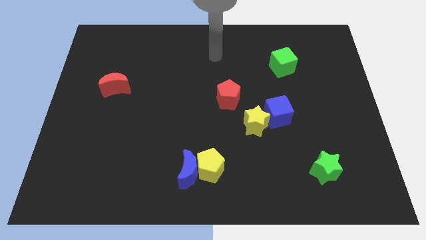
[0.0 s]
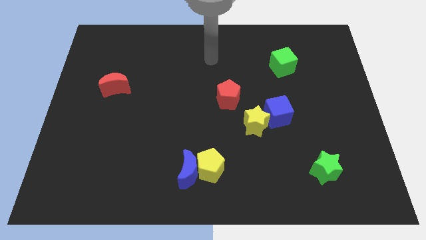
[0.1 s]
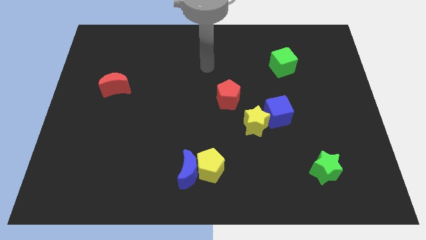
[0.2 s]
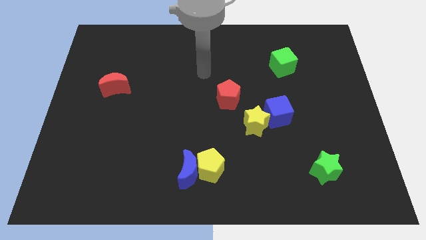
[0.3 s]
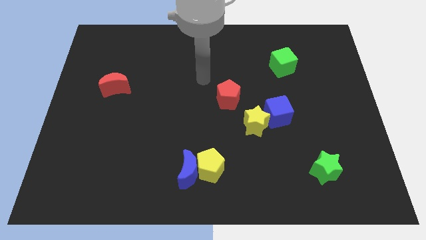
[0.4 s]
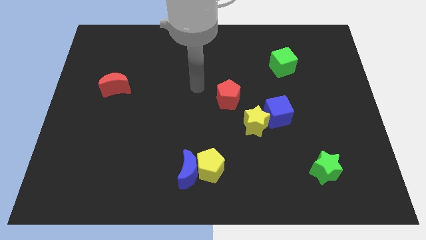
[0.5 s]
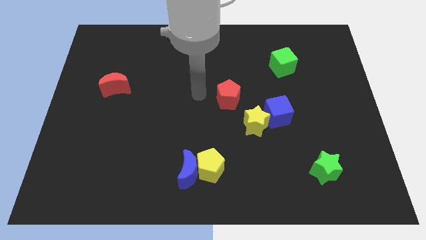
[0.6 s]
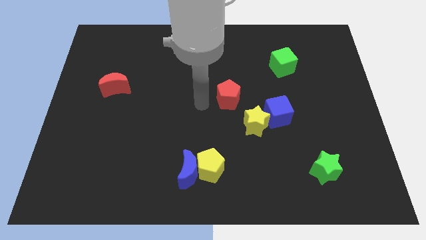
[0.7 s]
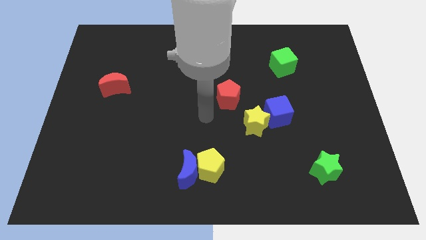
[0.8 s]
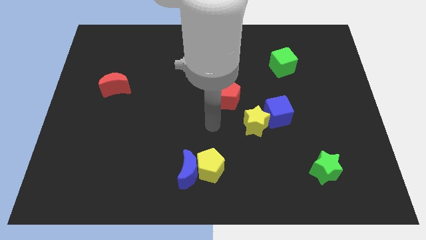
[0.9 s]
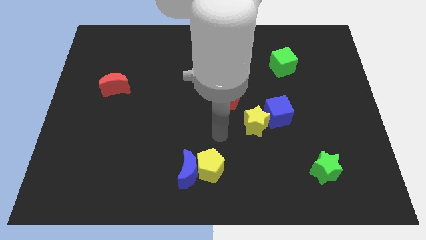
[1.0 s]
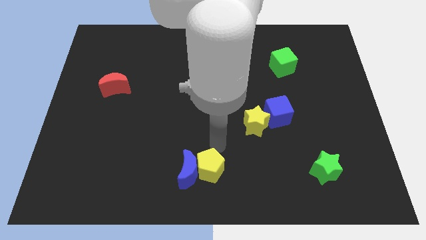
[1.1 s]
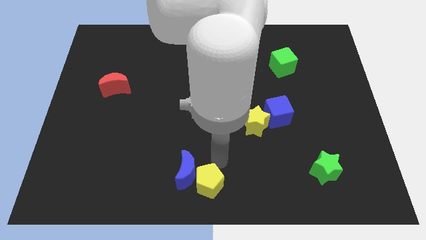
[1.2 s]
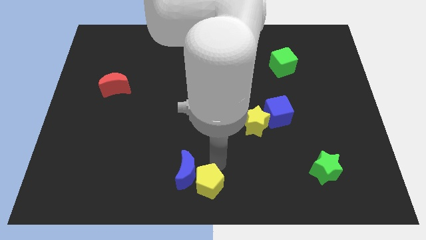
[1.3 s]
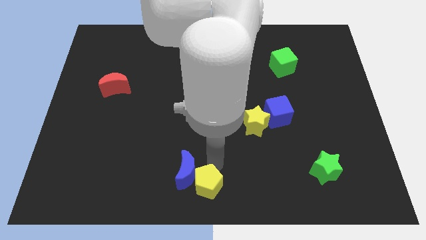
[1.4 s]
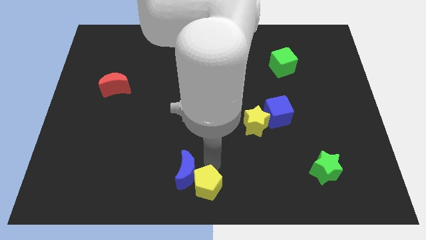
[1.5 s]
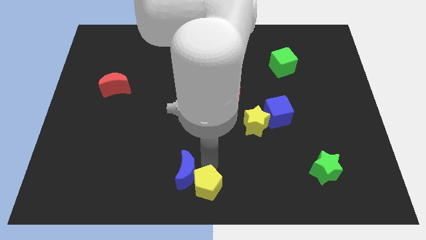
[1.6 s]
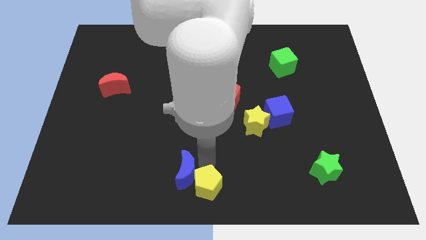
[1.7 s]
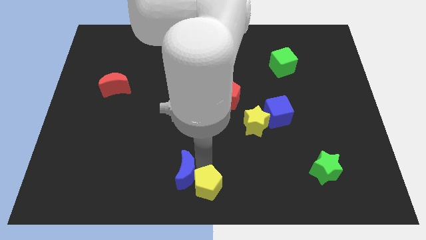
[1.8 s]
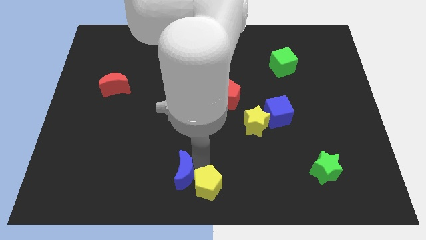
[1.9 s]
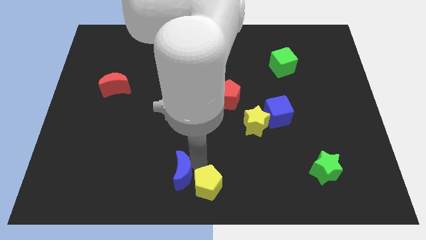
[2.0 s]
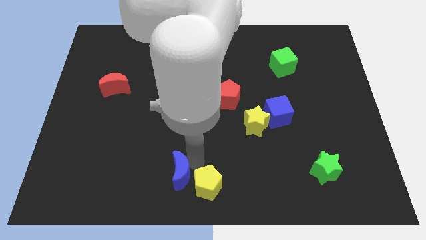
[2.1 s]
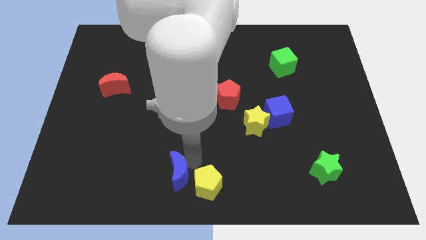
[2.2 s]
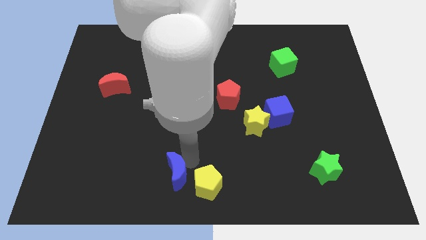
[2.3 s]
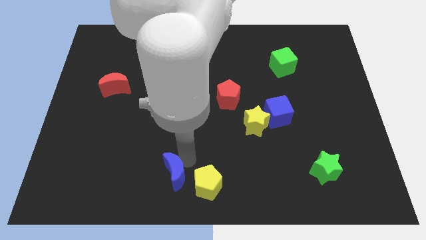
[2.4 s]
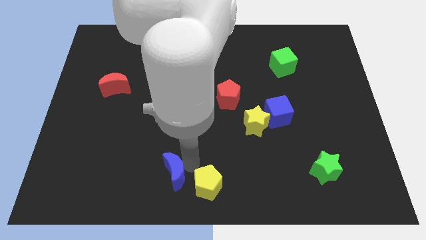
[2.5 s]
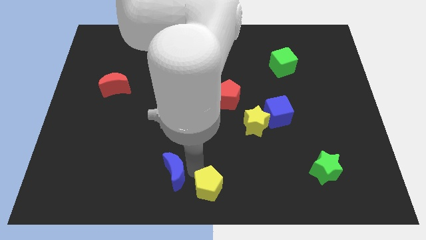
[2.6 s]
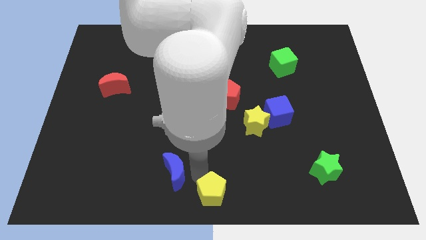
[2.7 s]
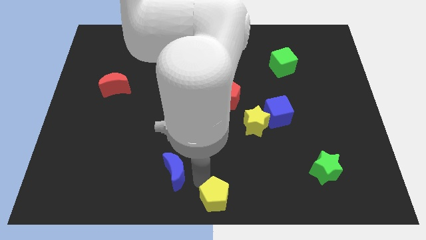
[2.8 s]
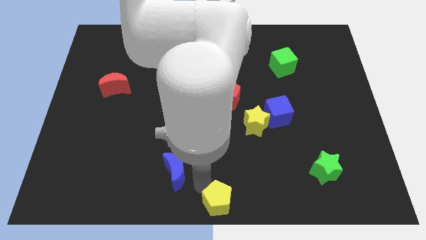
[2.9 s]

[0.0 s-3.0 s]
pull the blue moon apart from the yellow pentagon

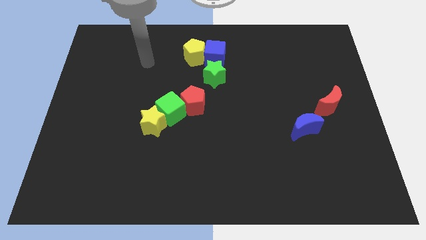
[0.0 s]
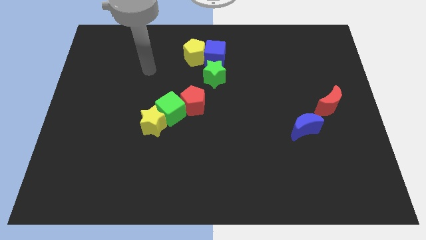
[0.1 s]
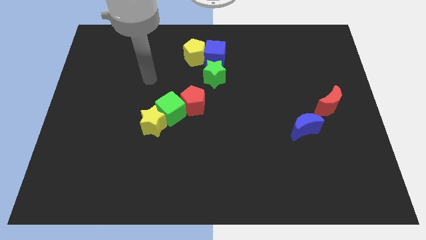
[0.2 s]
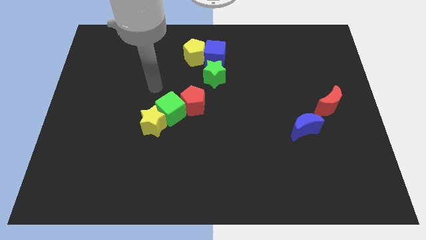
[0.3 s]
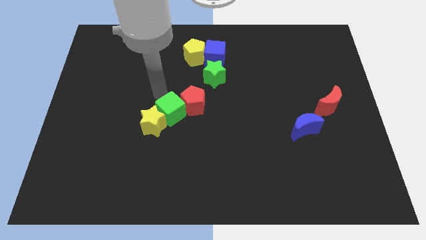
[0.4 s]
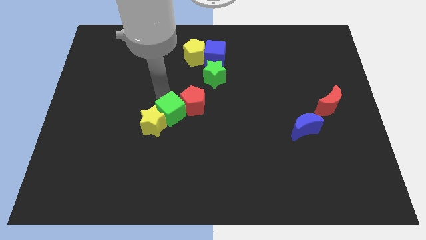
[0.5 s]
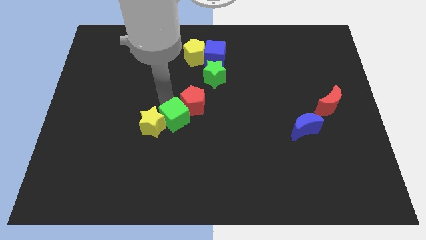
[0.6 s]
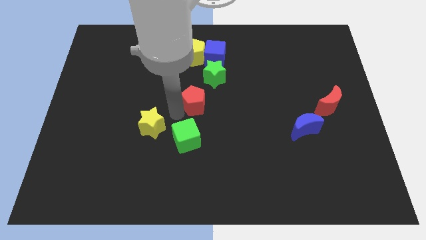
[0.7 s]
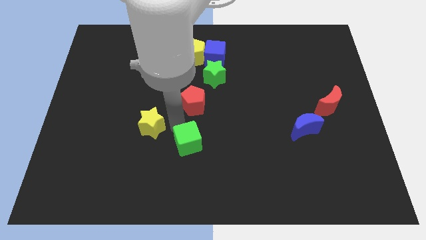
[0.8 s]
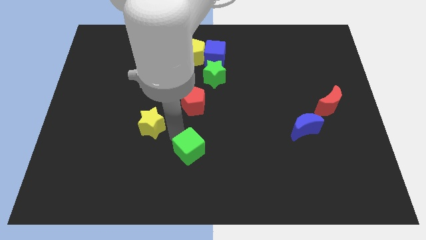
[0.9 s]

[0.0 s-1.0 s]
pull the yellow star apart from the green cube

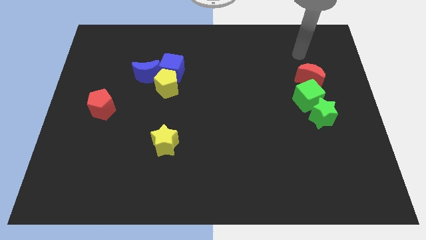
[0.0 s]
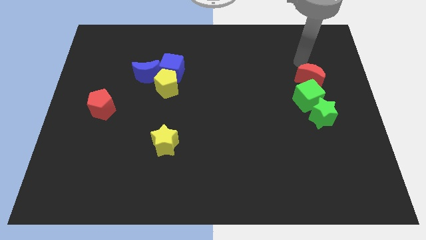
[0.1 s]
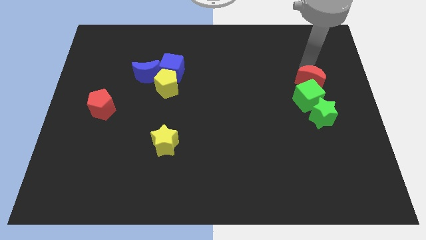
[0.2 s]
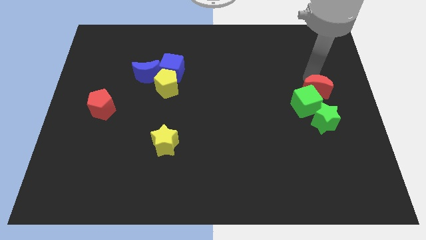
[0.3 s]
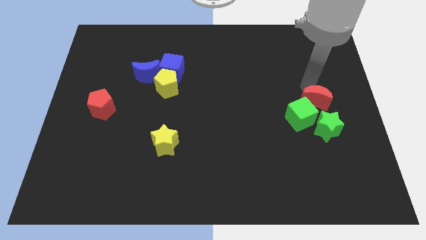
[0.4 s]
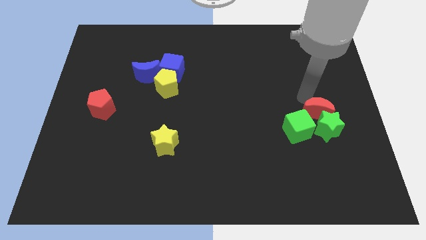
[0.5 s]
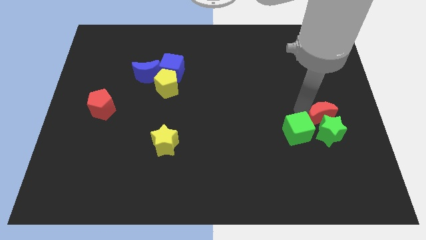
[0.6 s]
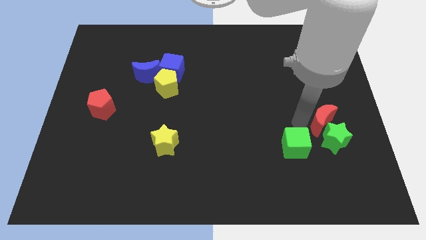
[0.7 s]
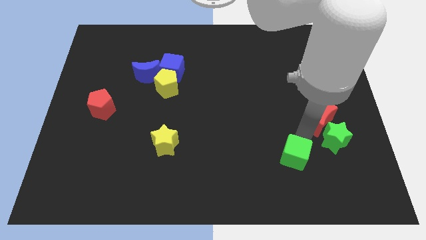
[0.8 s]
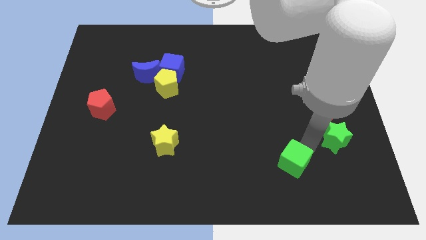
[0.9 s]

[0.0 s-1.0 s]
pull the green star apart from the green cube

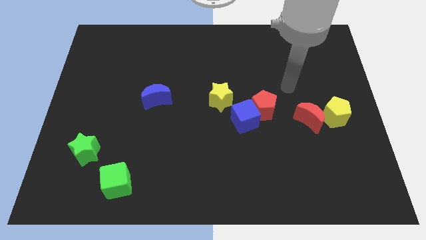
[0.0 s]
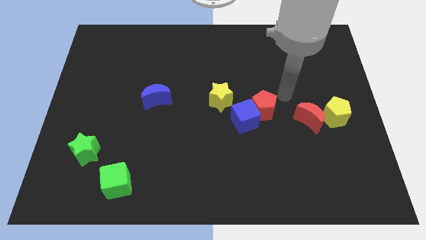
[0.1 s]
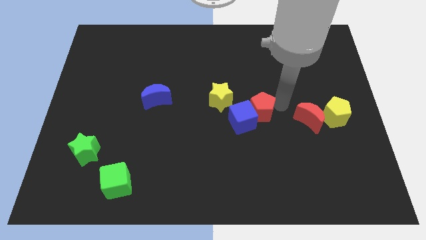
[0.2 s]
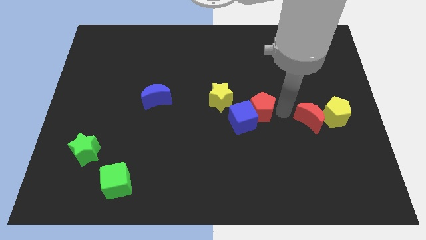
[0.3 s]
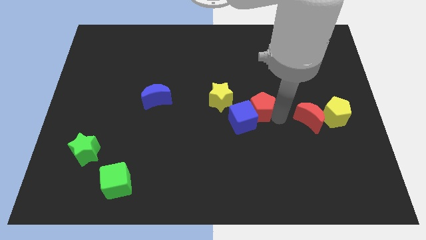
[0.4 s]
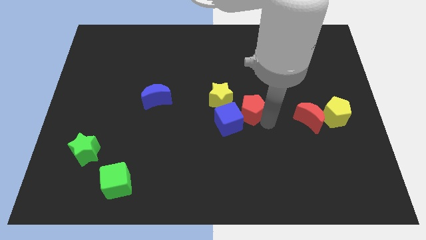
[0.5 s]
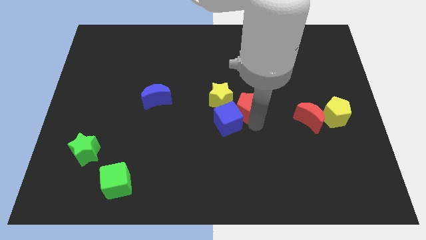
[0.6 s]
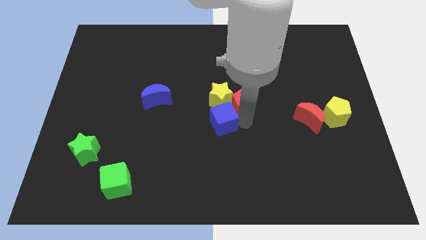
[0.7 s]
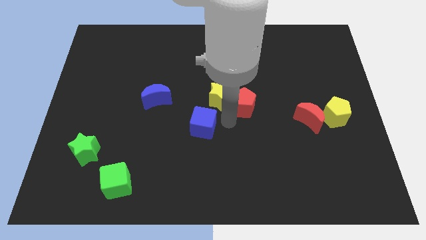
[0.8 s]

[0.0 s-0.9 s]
pull the red pentagon apart from the blue cube

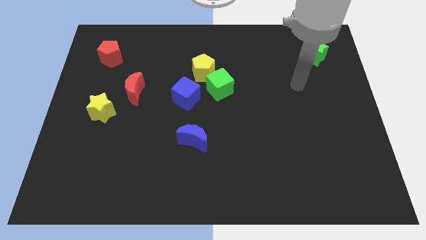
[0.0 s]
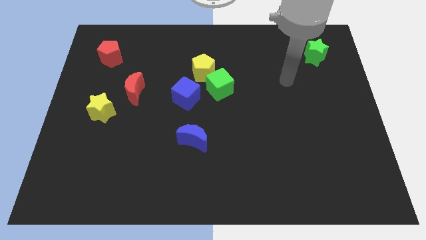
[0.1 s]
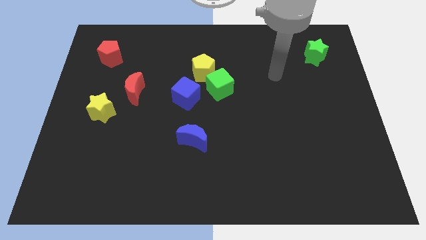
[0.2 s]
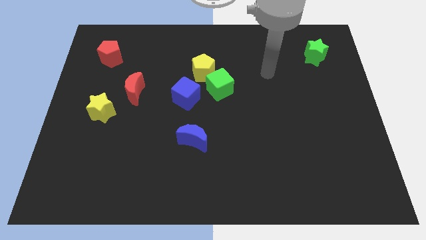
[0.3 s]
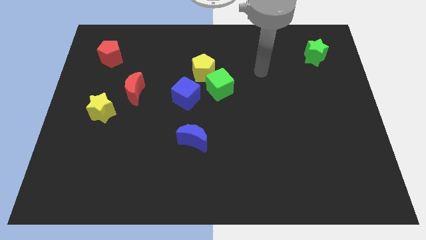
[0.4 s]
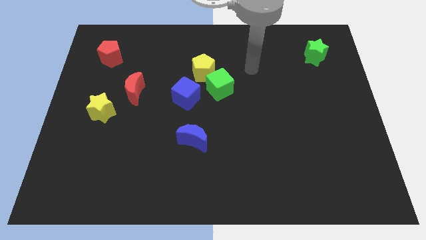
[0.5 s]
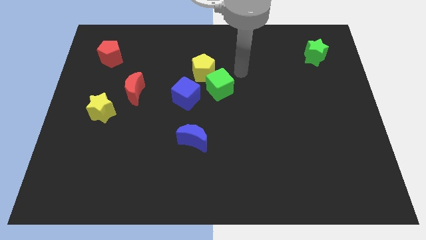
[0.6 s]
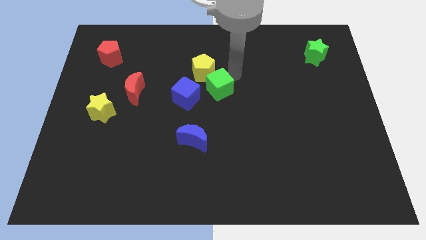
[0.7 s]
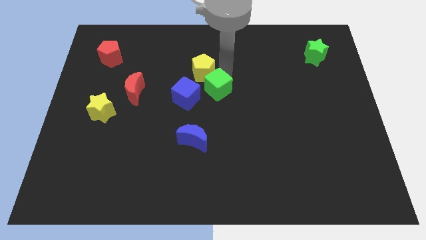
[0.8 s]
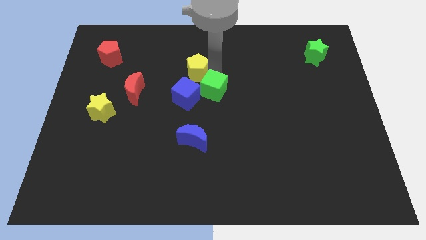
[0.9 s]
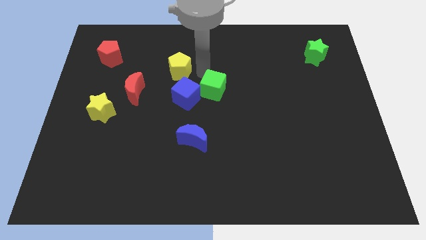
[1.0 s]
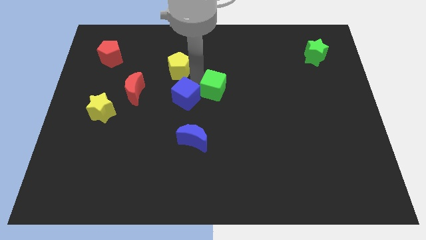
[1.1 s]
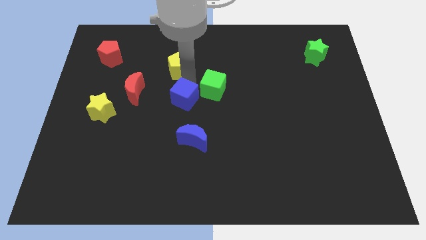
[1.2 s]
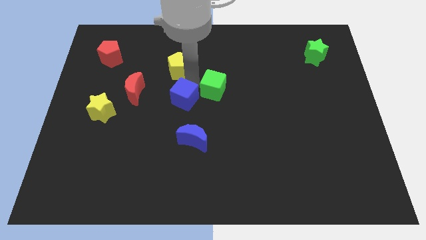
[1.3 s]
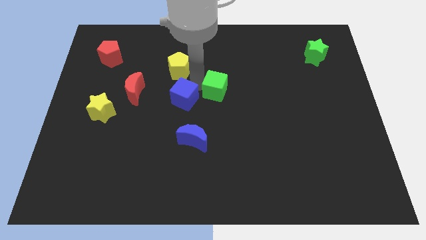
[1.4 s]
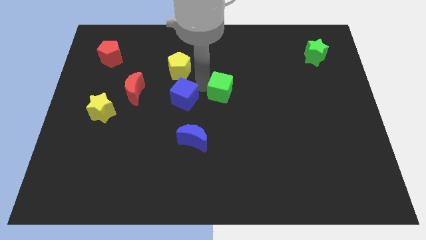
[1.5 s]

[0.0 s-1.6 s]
separate the green cube from the yellow pentagon and blue cube

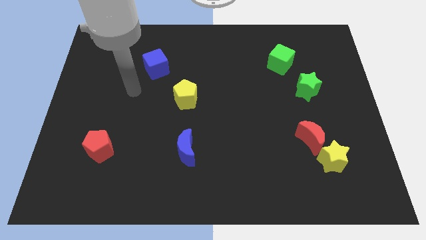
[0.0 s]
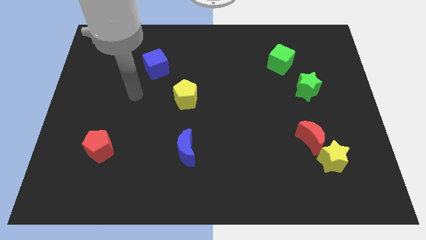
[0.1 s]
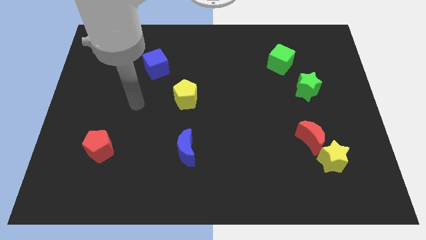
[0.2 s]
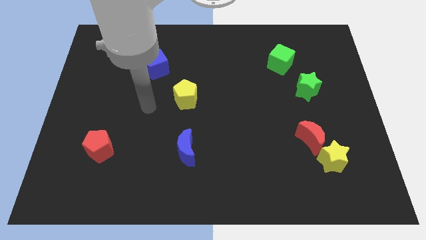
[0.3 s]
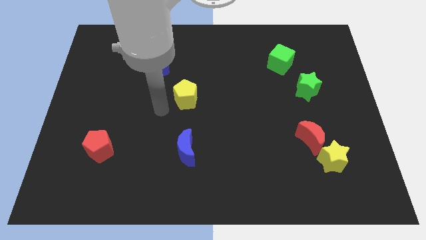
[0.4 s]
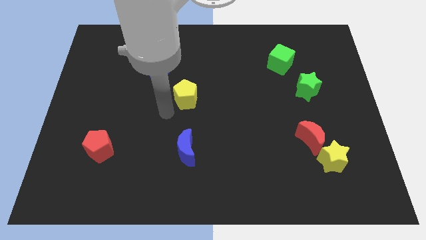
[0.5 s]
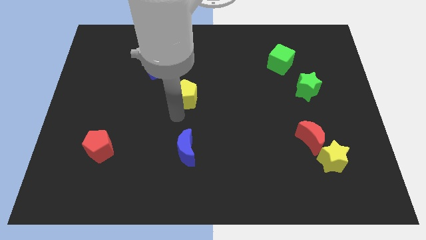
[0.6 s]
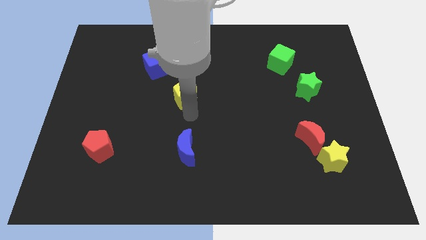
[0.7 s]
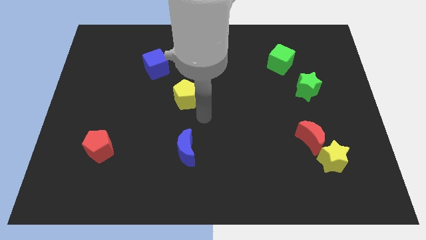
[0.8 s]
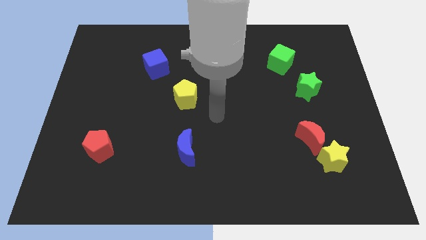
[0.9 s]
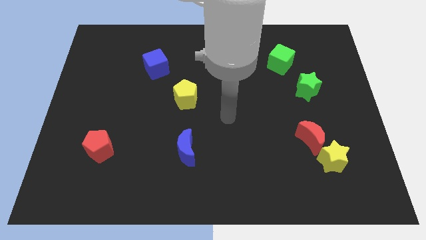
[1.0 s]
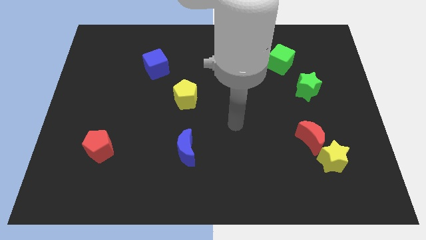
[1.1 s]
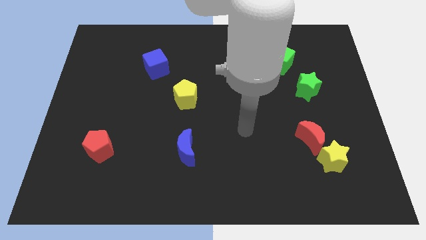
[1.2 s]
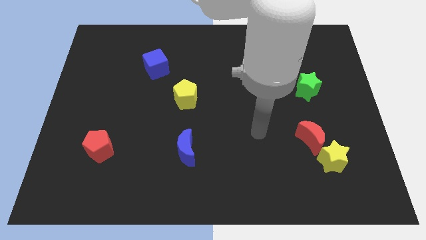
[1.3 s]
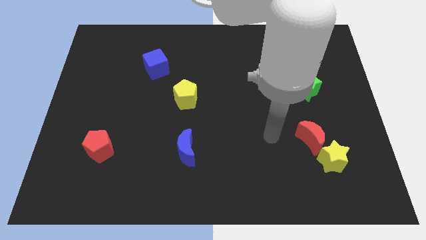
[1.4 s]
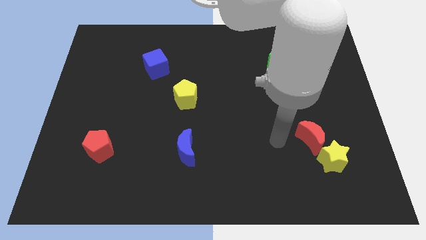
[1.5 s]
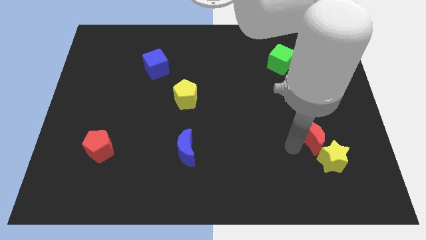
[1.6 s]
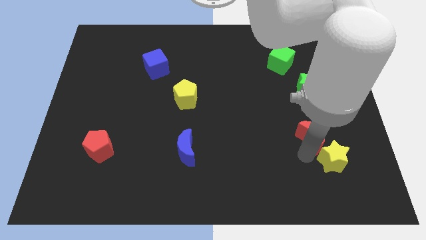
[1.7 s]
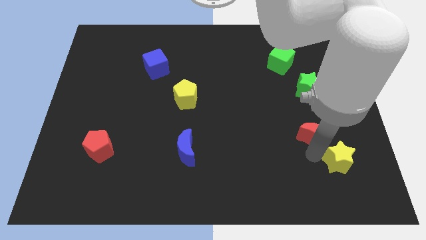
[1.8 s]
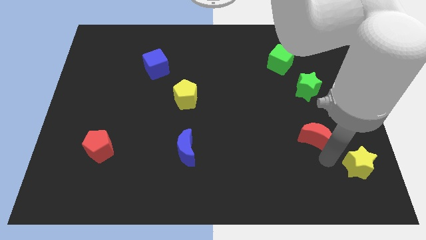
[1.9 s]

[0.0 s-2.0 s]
move the red moon away from the yellow star
